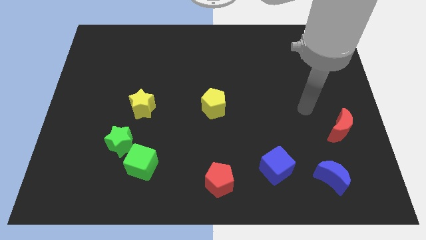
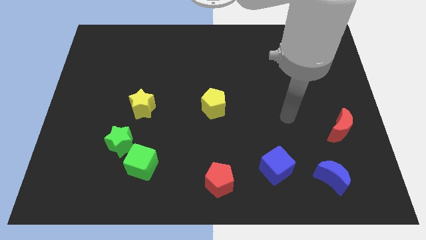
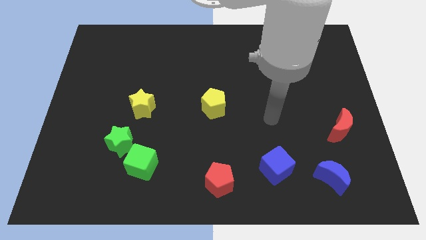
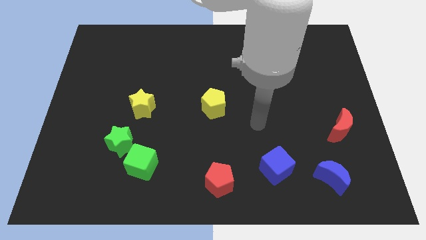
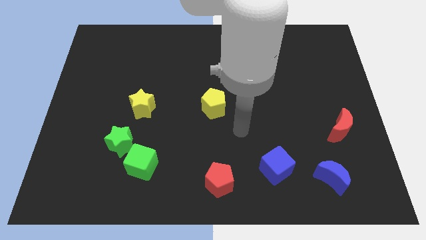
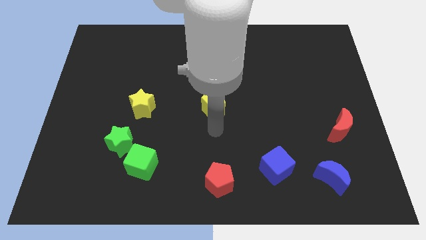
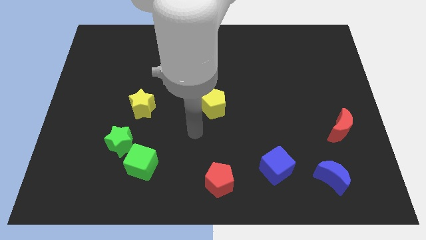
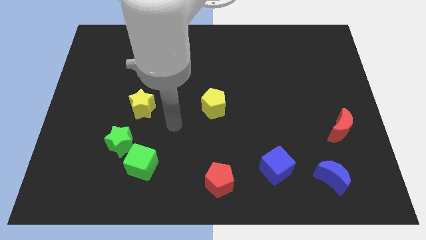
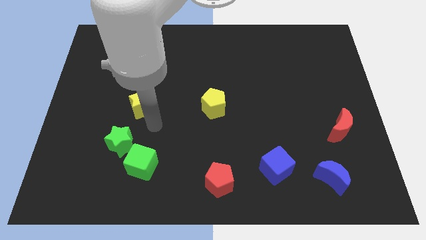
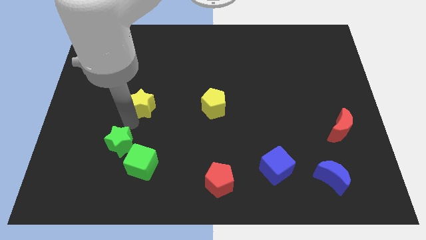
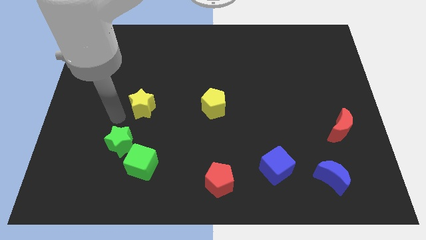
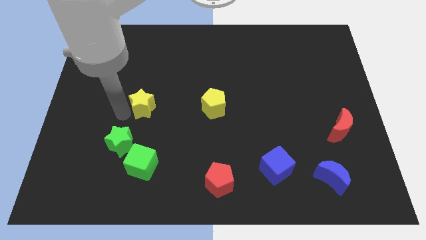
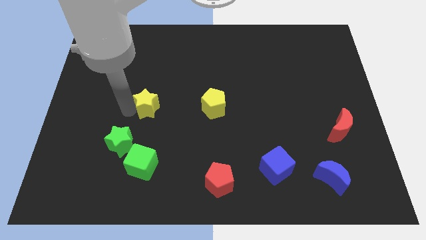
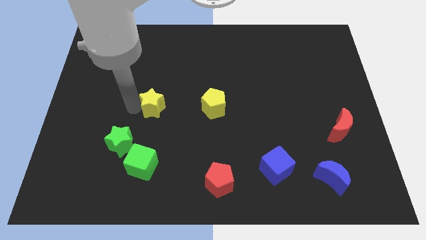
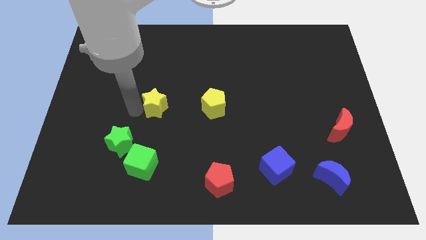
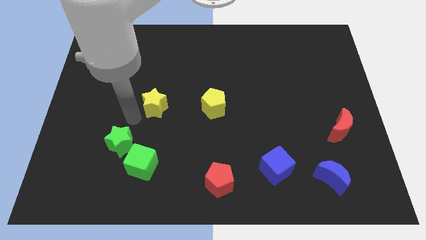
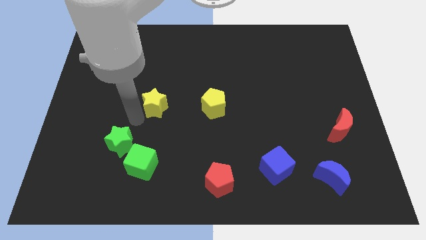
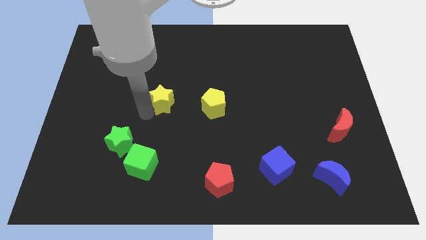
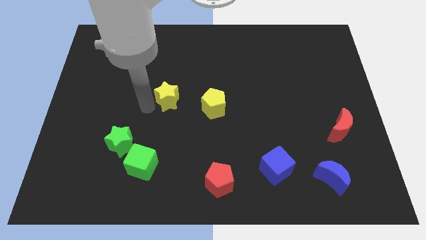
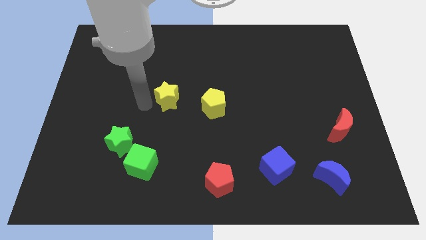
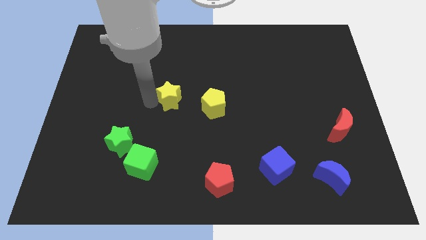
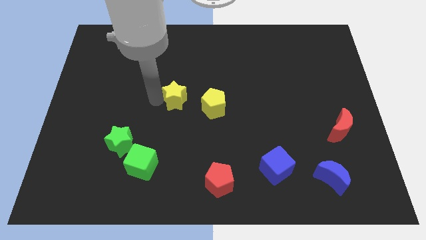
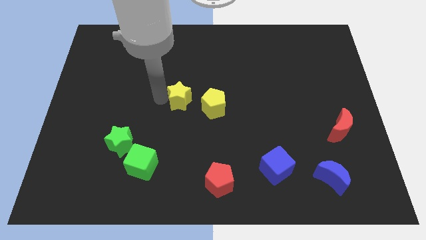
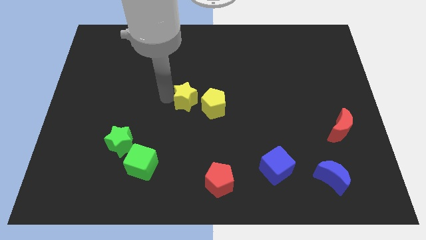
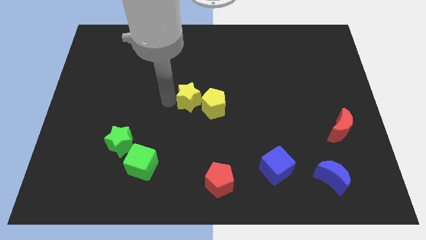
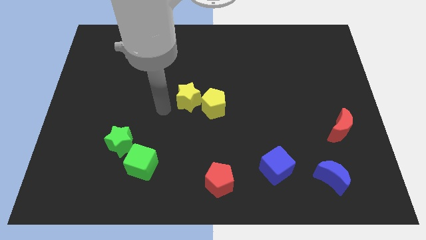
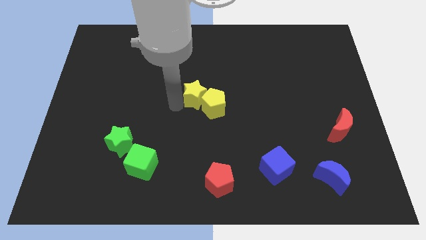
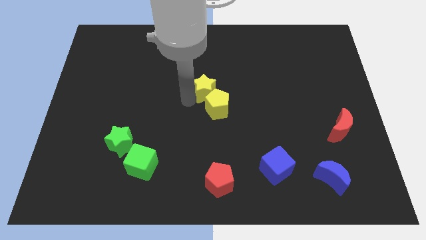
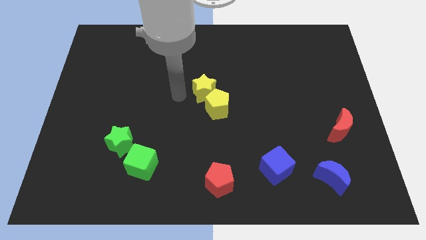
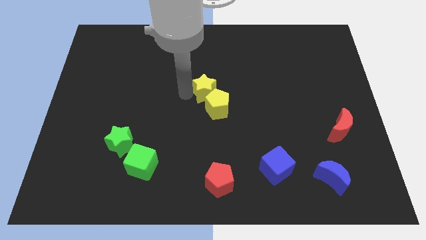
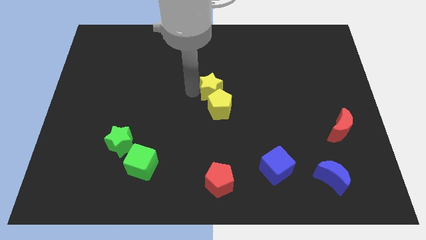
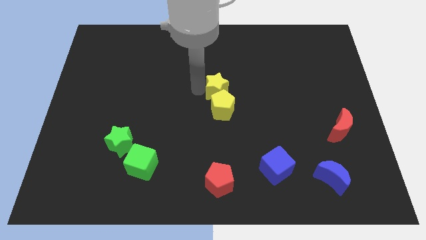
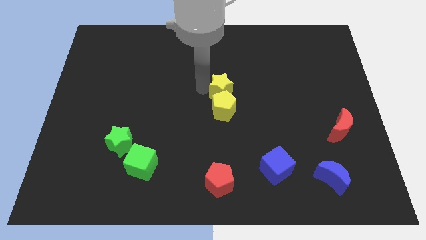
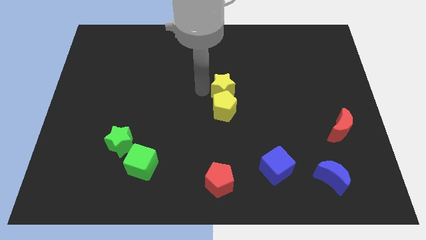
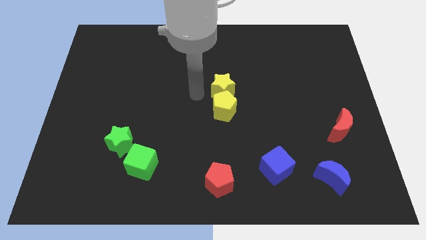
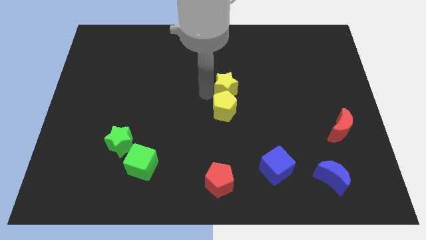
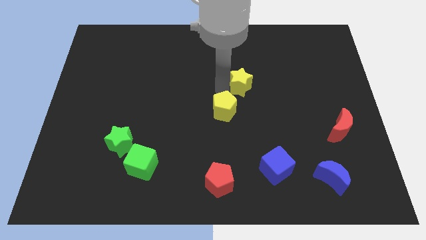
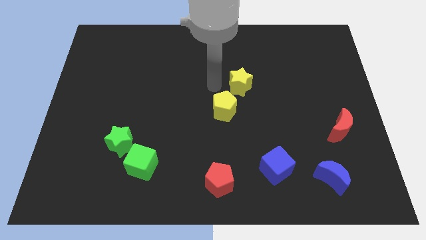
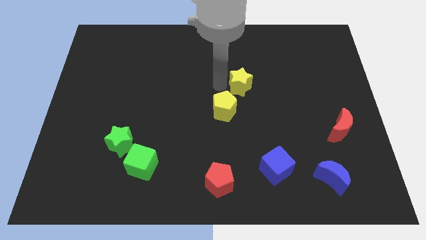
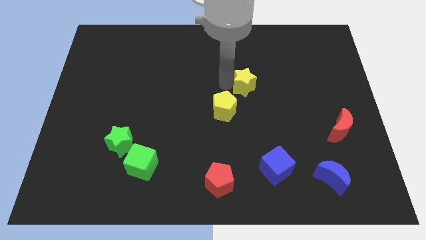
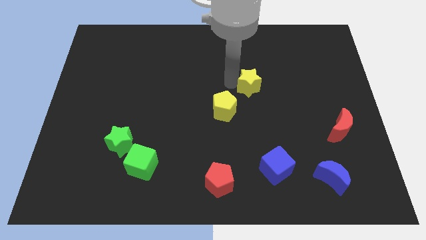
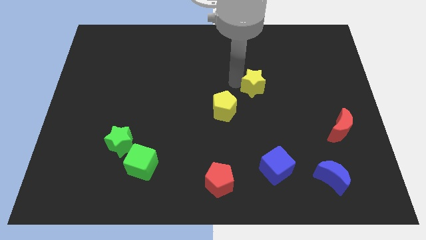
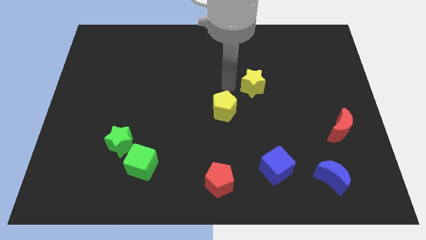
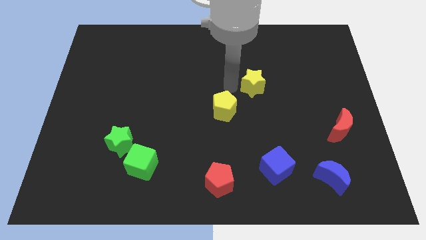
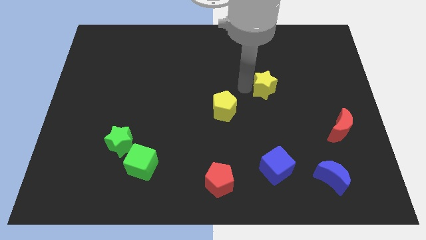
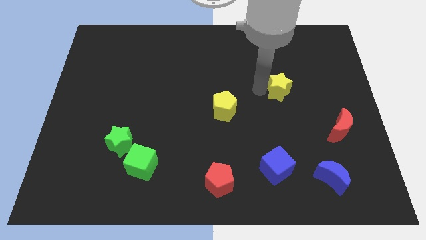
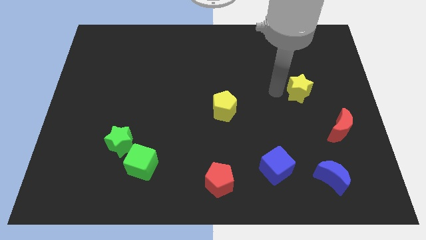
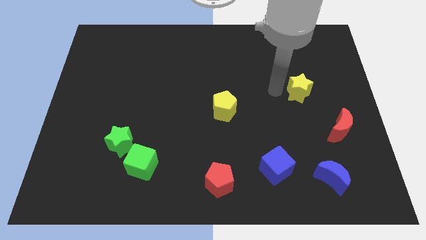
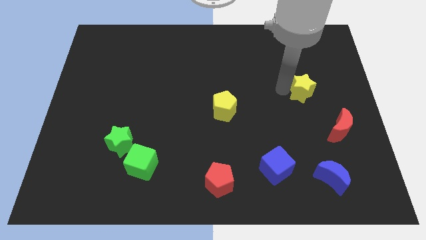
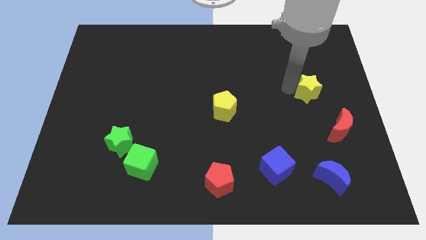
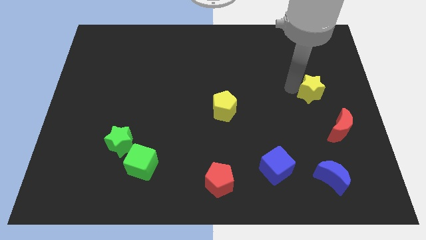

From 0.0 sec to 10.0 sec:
put the yellow star above the red moon

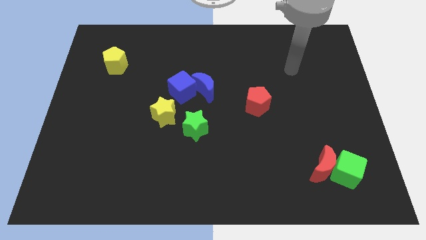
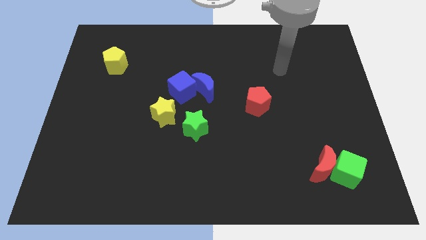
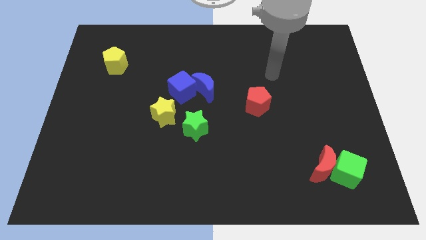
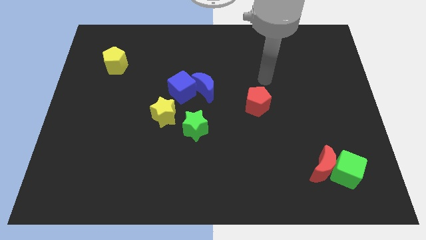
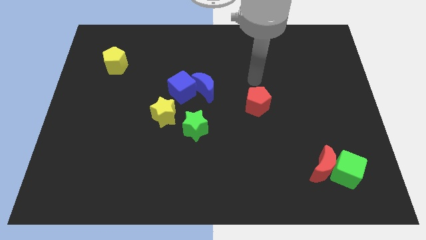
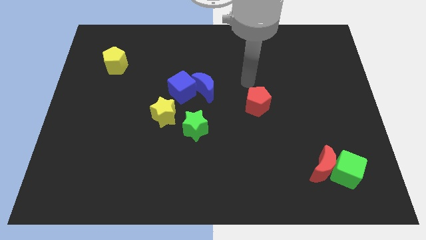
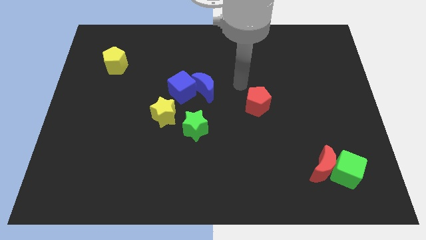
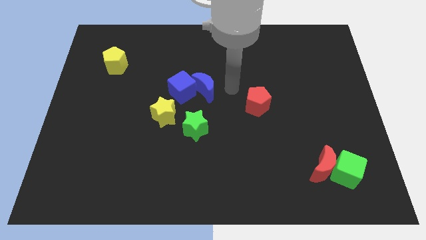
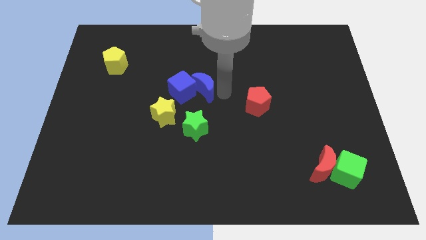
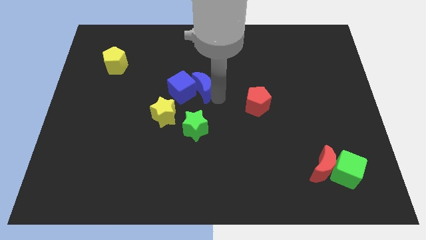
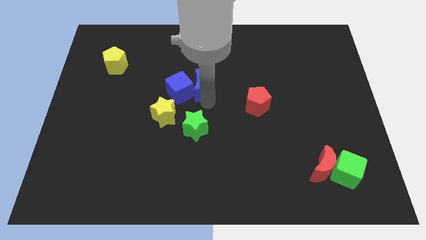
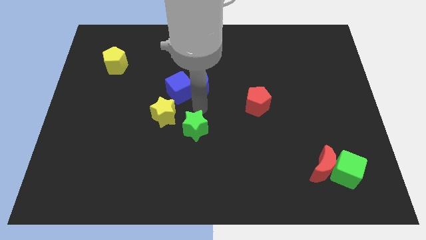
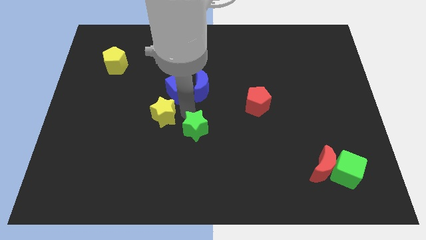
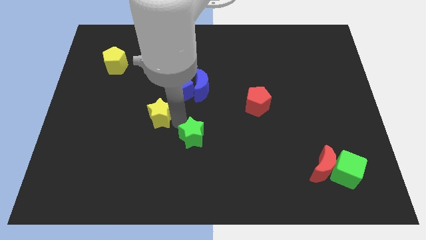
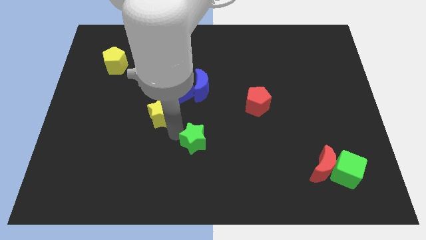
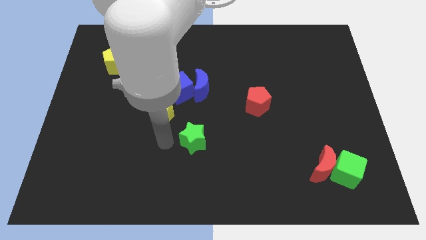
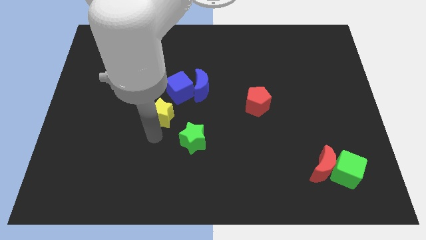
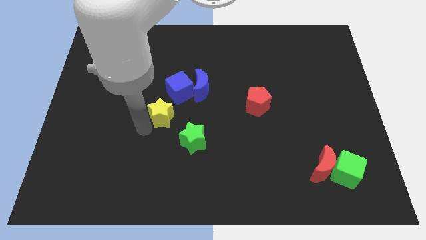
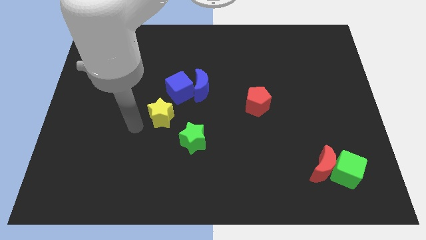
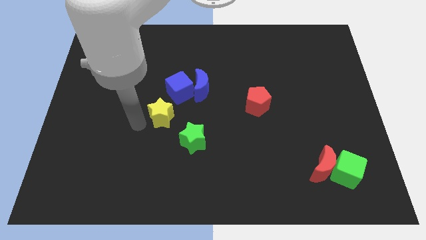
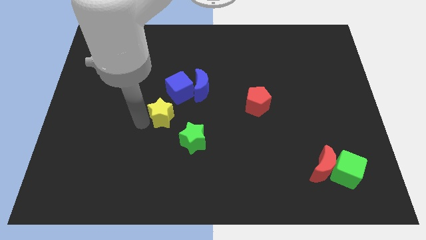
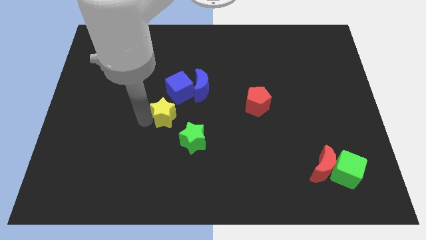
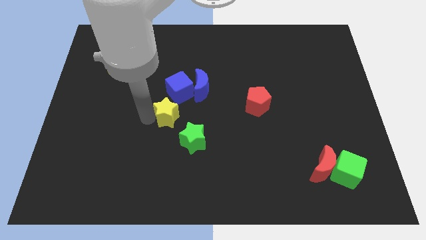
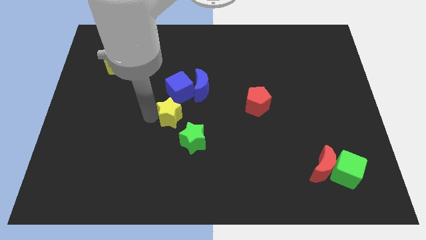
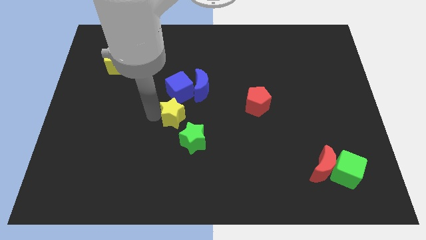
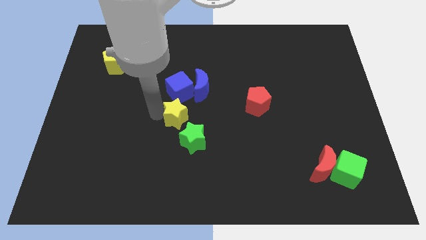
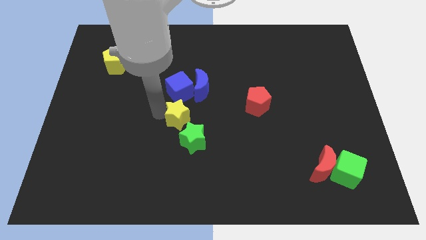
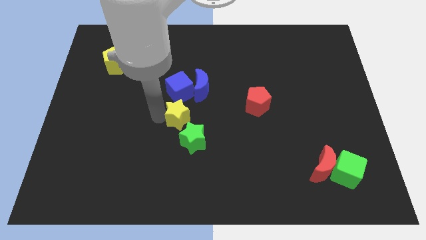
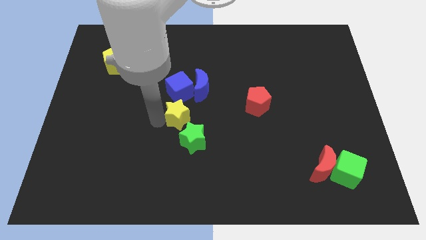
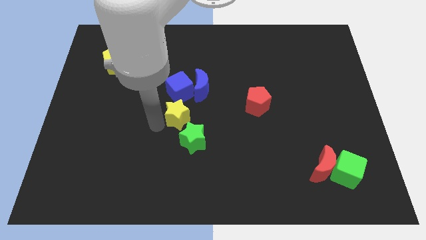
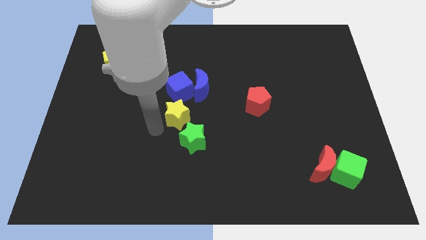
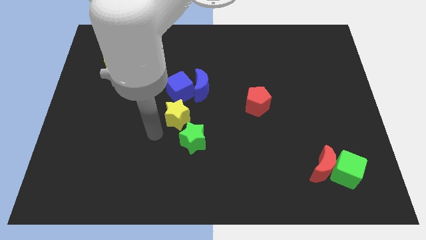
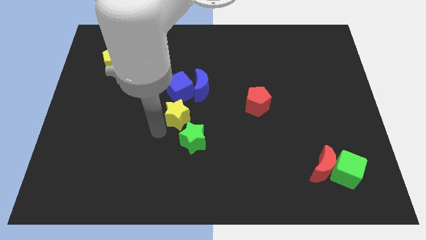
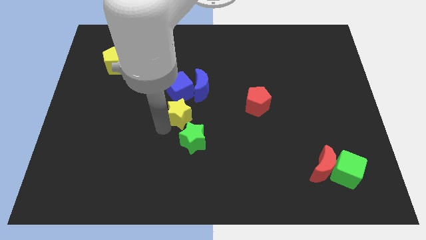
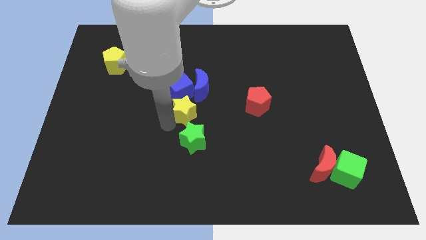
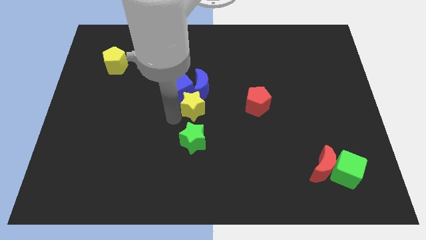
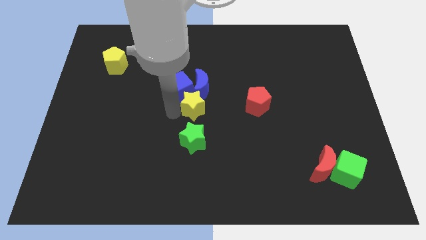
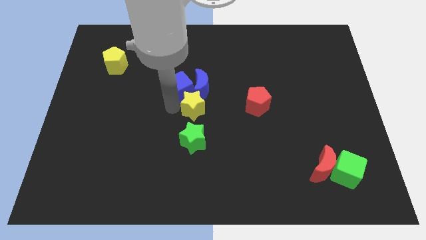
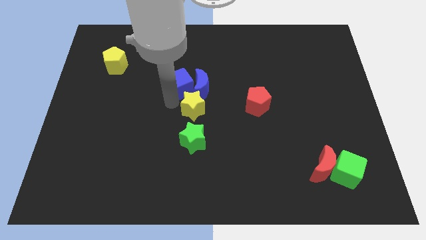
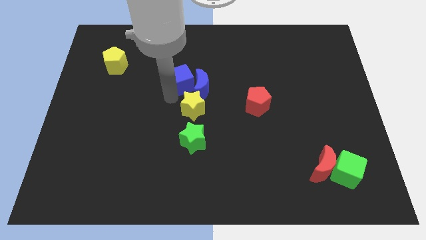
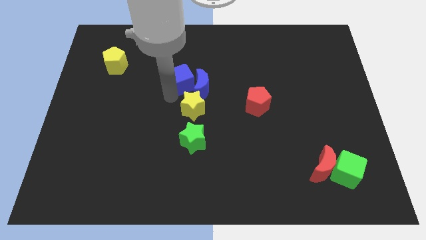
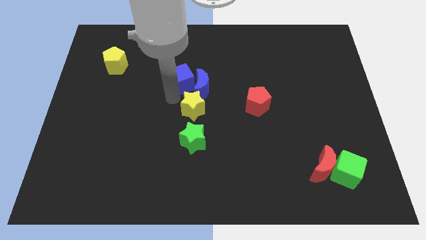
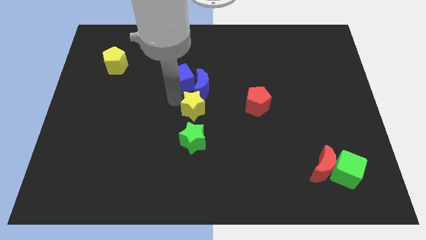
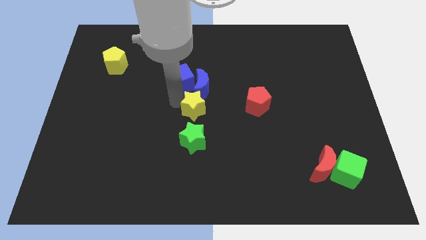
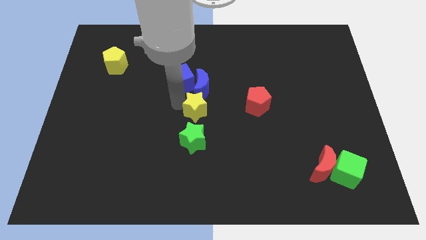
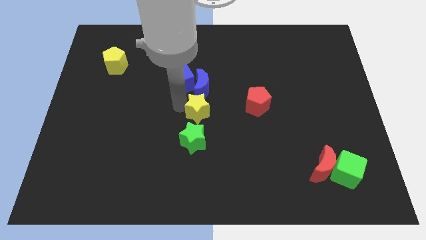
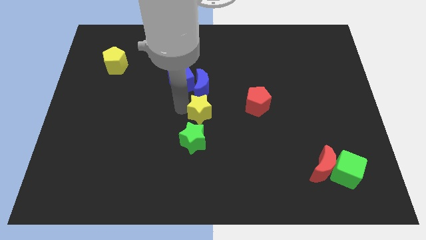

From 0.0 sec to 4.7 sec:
slide the yellow star to the top right of the green star
